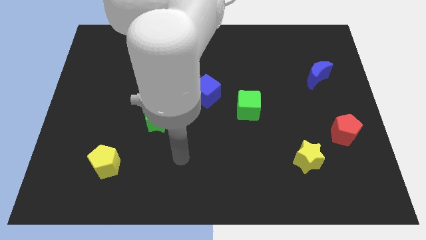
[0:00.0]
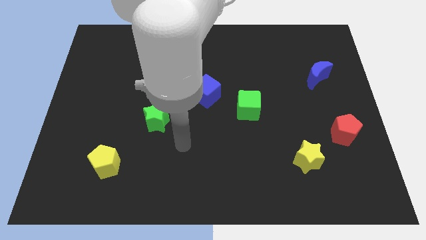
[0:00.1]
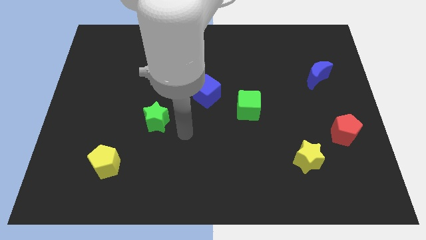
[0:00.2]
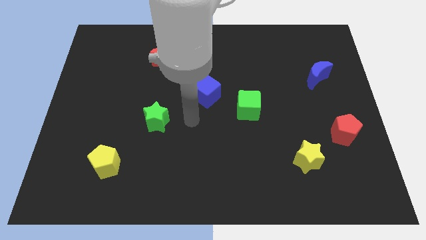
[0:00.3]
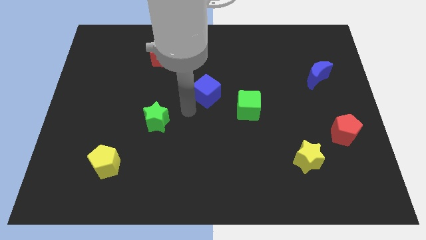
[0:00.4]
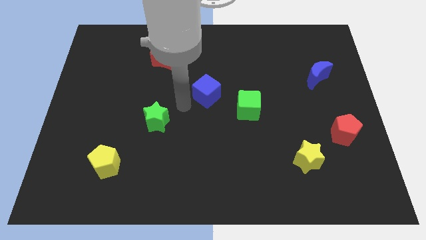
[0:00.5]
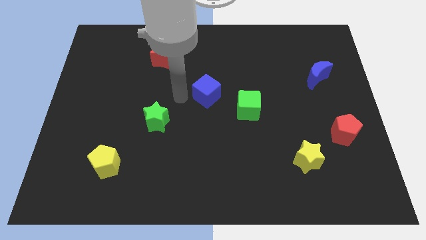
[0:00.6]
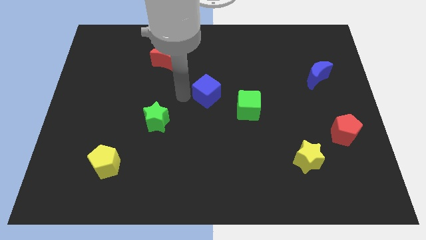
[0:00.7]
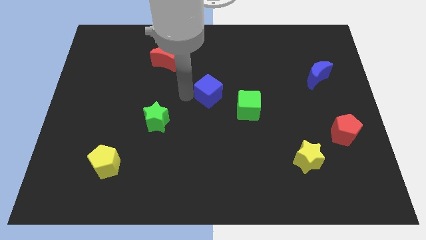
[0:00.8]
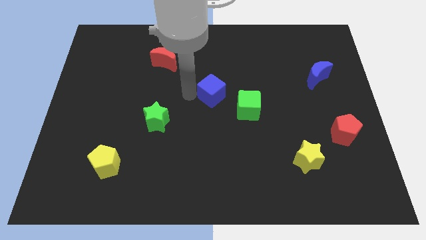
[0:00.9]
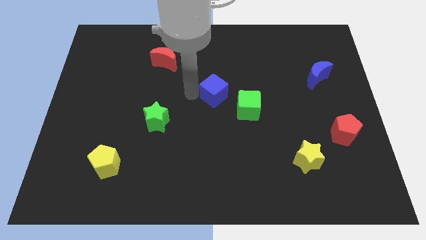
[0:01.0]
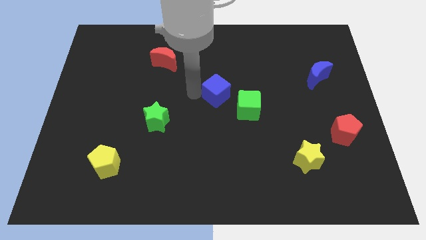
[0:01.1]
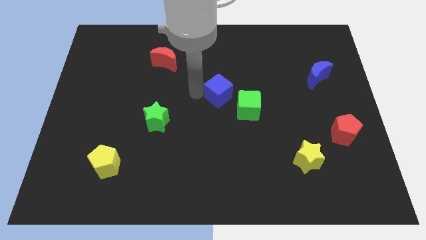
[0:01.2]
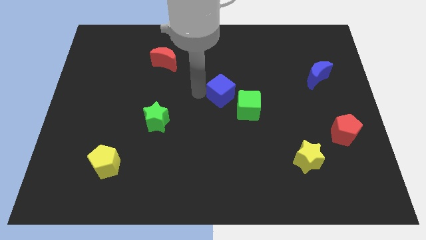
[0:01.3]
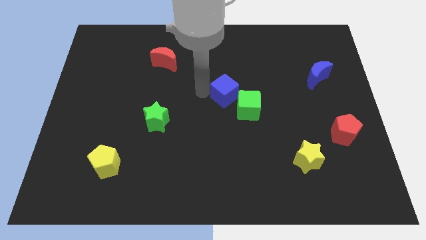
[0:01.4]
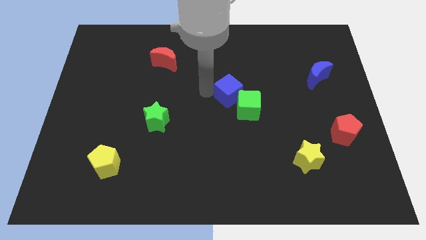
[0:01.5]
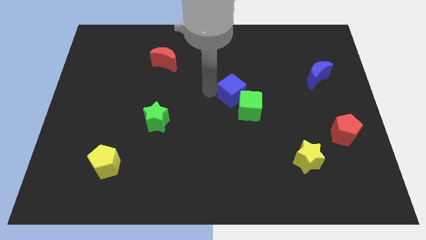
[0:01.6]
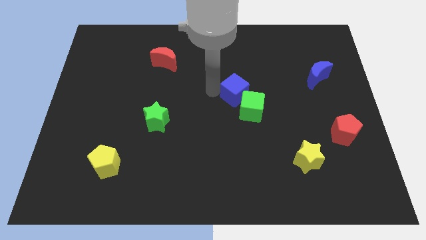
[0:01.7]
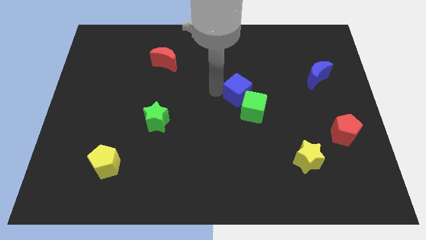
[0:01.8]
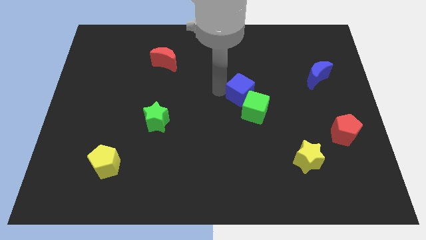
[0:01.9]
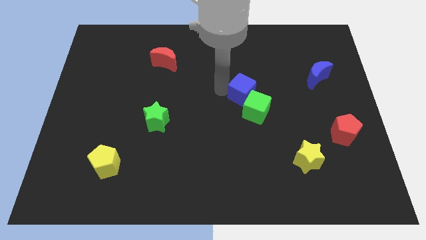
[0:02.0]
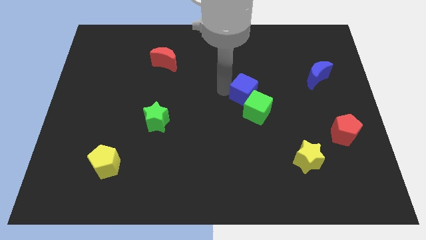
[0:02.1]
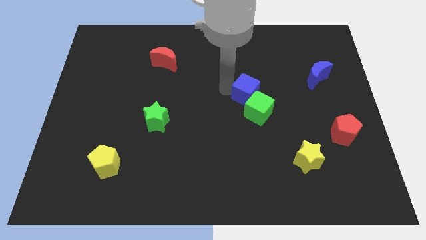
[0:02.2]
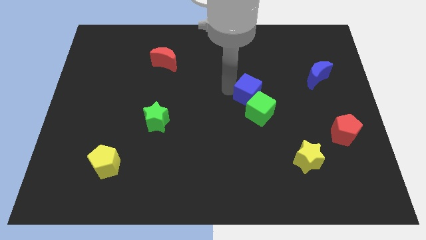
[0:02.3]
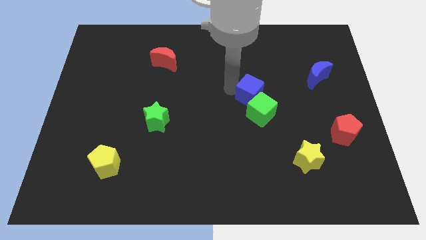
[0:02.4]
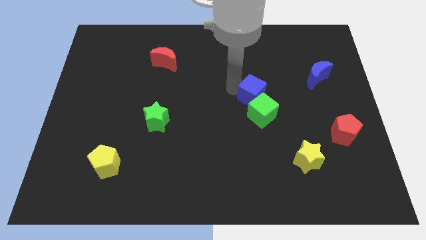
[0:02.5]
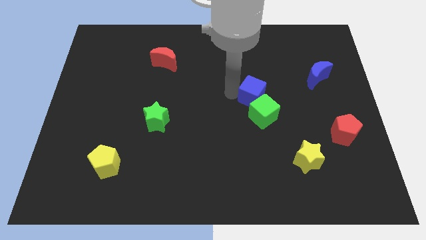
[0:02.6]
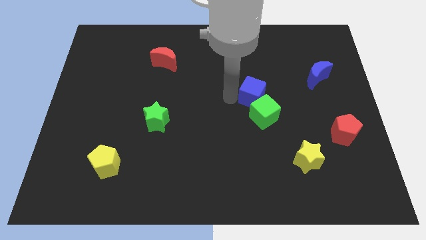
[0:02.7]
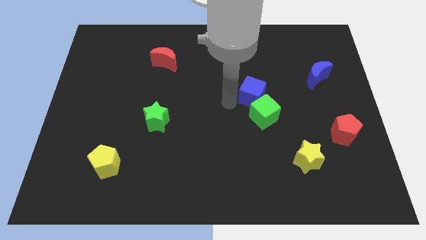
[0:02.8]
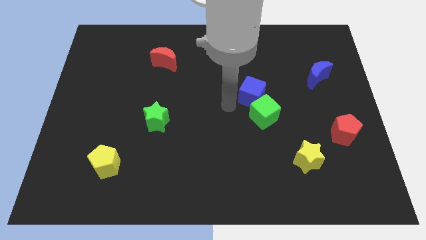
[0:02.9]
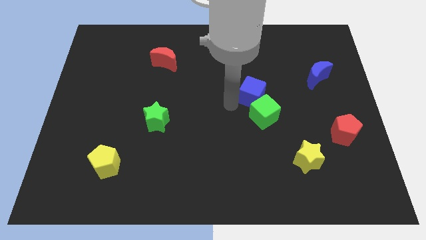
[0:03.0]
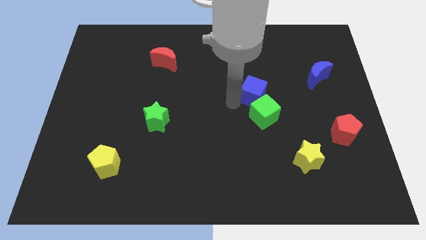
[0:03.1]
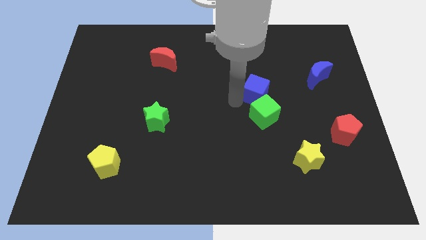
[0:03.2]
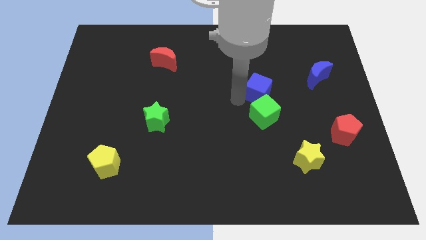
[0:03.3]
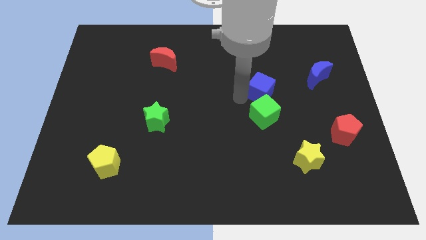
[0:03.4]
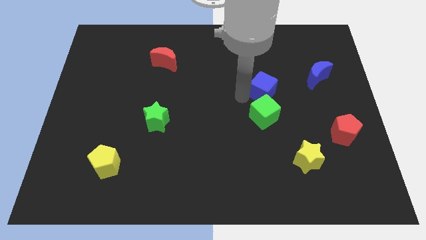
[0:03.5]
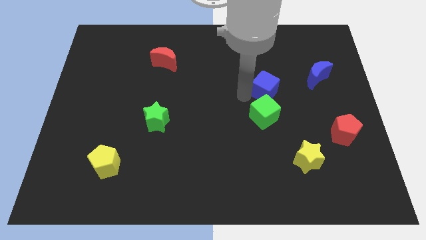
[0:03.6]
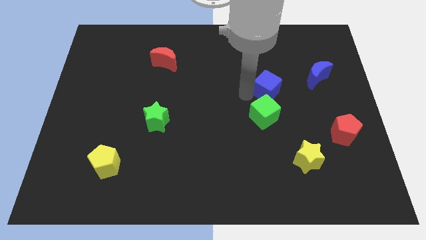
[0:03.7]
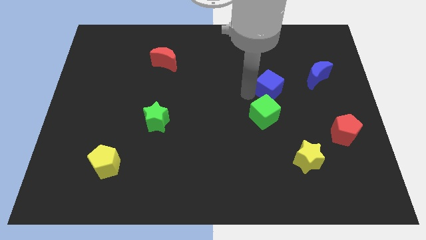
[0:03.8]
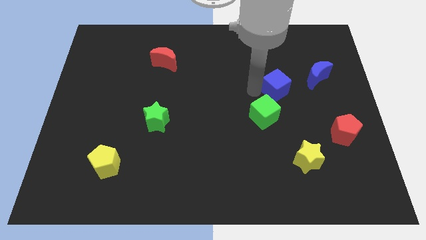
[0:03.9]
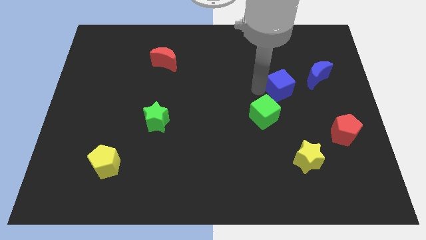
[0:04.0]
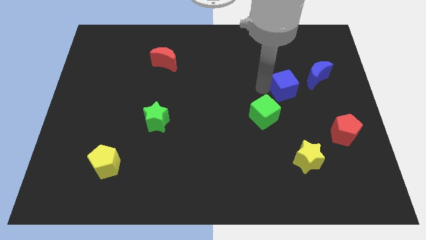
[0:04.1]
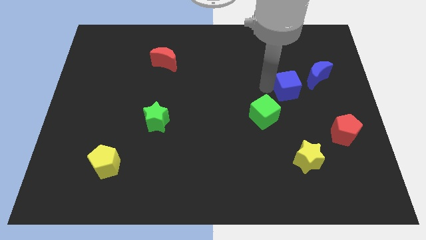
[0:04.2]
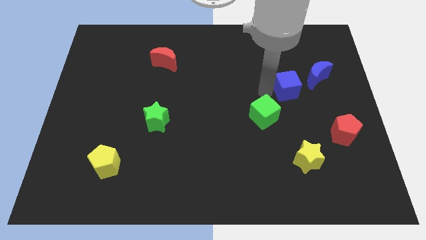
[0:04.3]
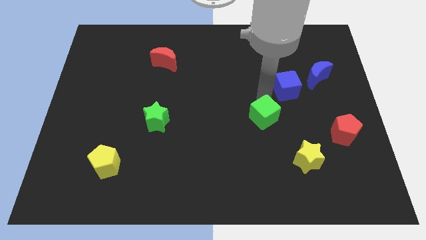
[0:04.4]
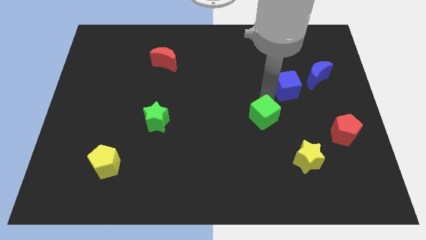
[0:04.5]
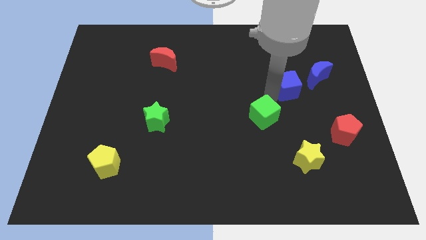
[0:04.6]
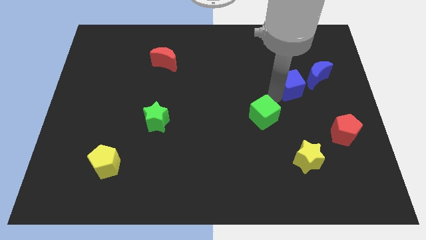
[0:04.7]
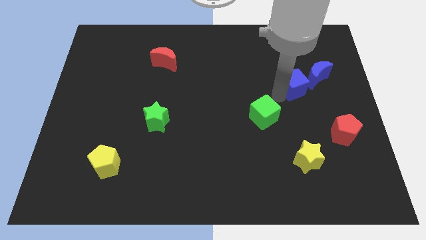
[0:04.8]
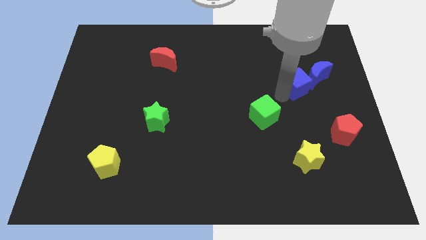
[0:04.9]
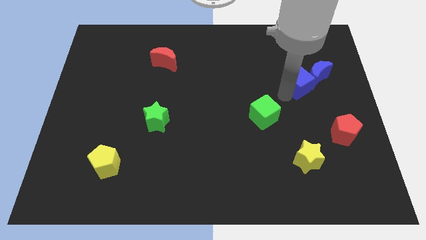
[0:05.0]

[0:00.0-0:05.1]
move the blue cube next to the blue moon
